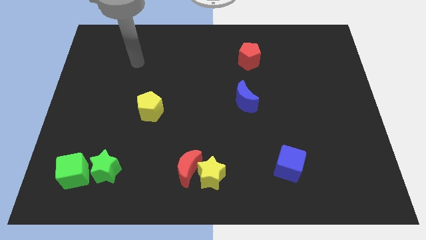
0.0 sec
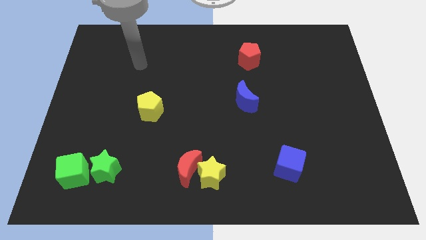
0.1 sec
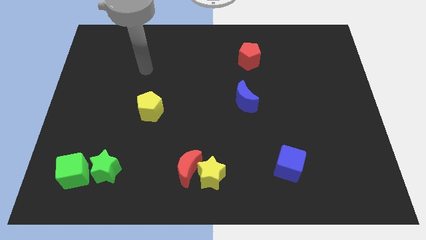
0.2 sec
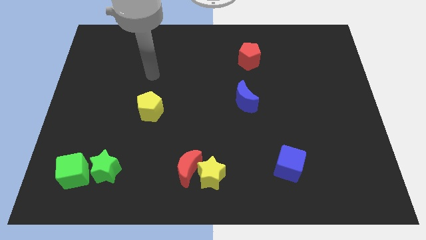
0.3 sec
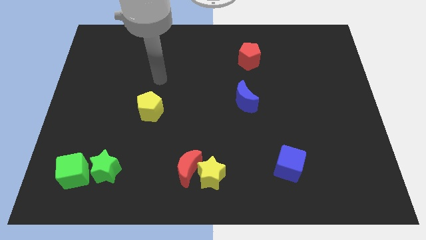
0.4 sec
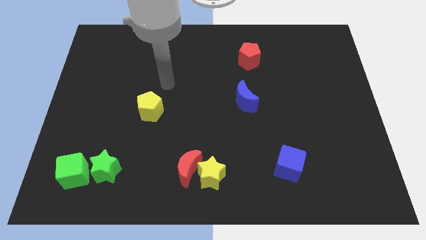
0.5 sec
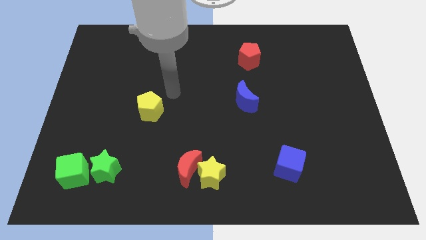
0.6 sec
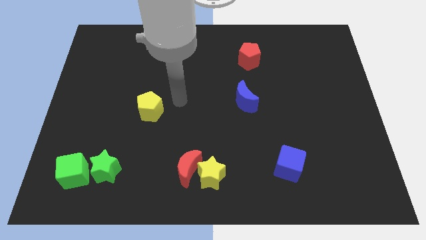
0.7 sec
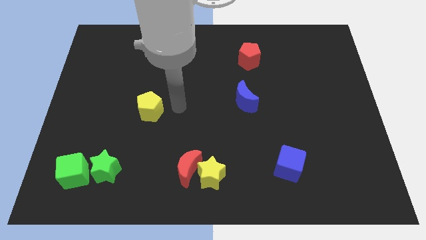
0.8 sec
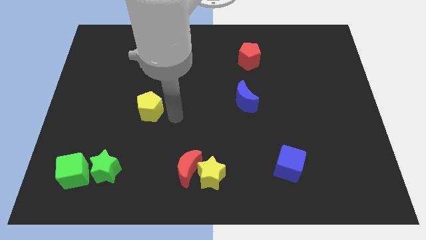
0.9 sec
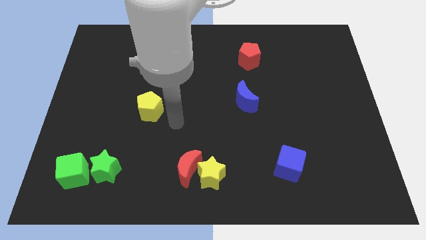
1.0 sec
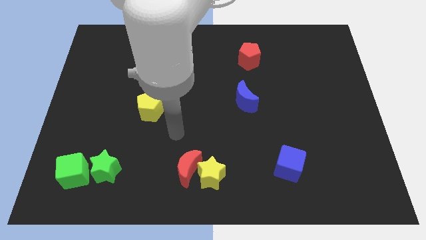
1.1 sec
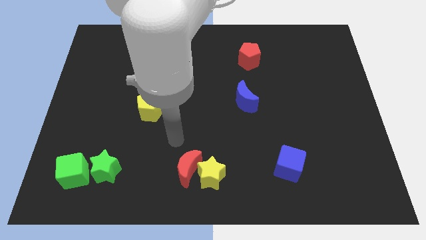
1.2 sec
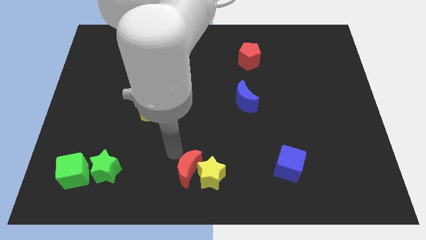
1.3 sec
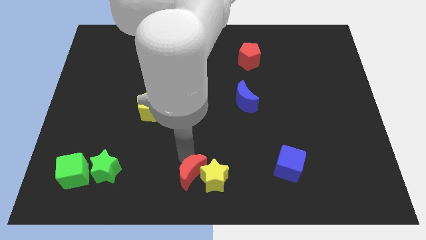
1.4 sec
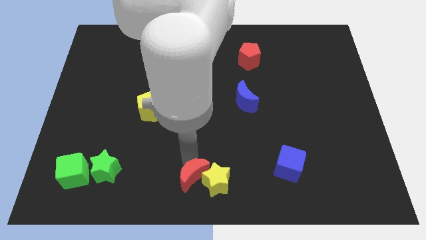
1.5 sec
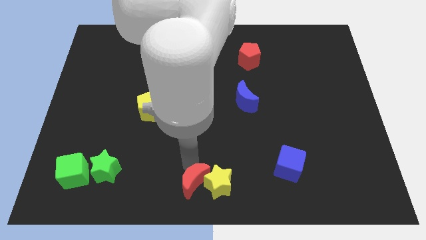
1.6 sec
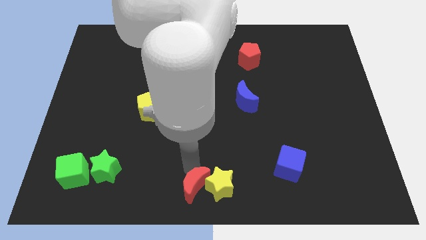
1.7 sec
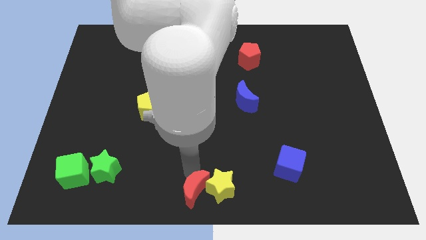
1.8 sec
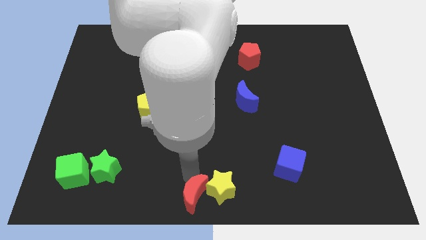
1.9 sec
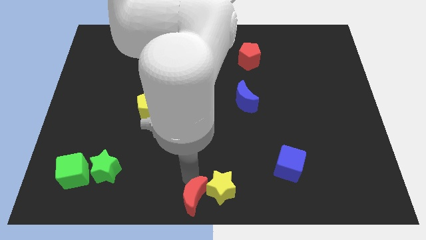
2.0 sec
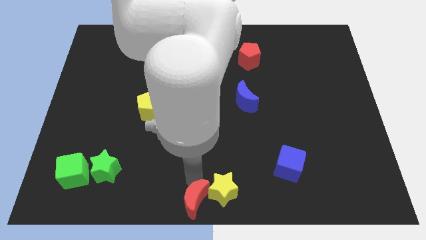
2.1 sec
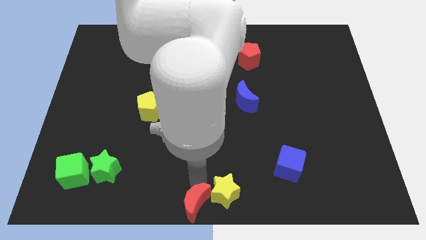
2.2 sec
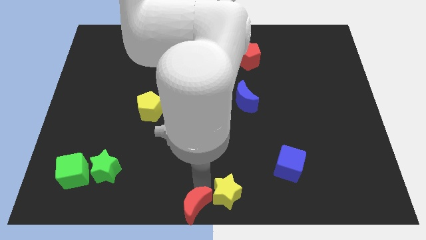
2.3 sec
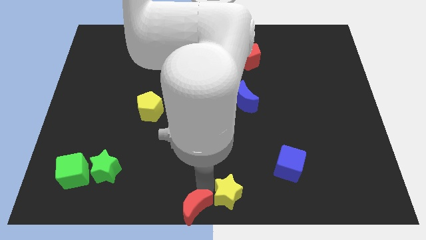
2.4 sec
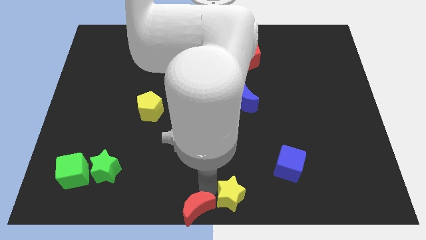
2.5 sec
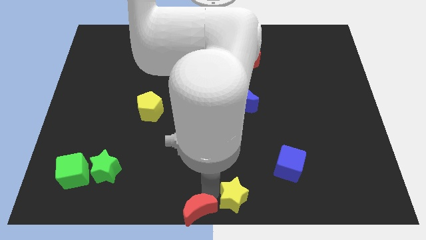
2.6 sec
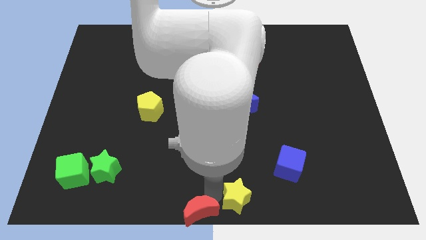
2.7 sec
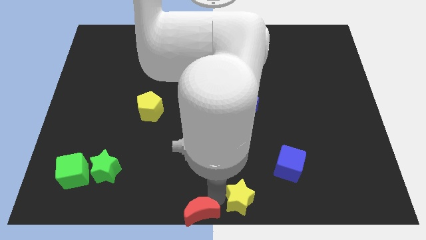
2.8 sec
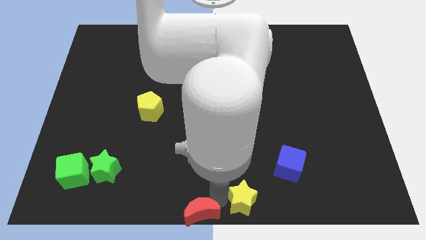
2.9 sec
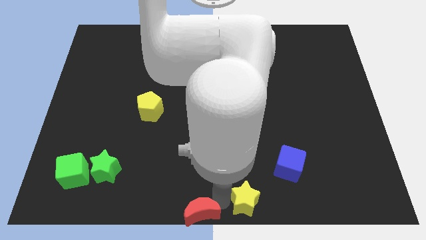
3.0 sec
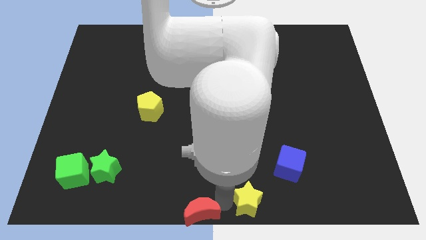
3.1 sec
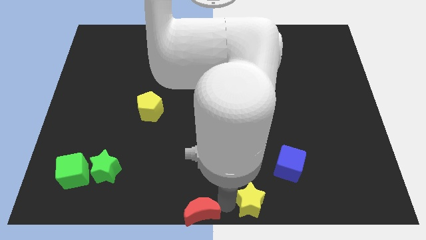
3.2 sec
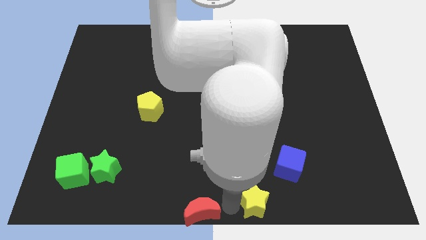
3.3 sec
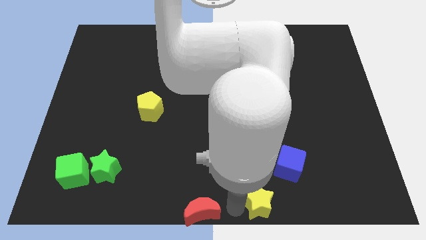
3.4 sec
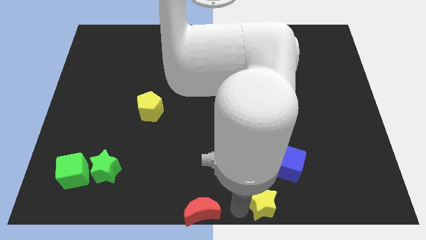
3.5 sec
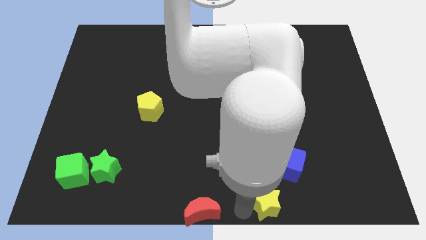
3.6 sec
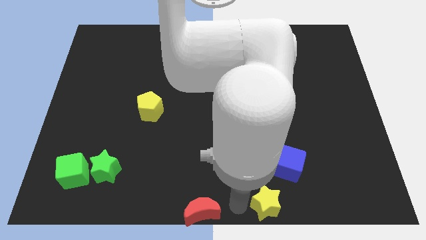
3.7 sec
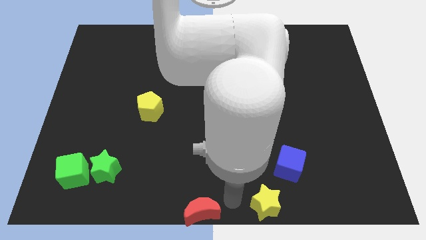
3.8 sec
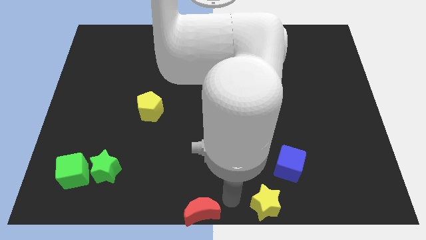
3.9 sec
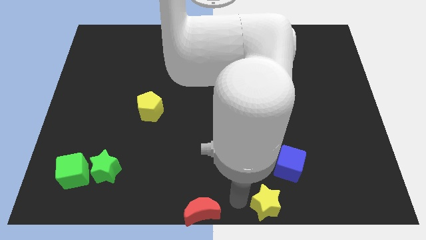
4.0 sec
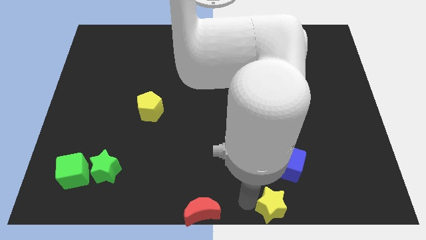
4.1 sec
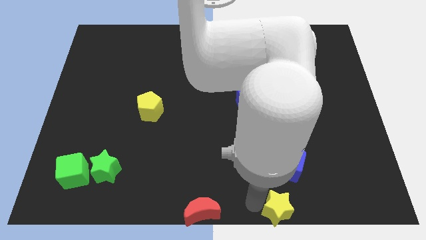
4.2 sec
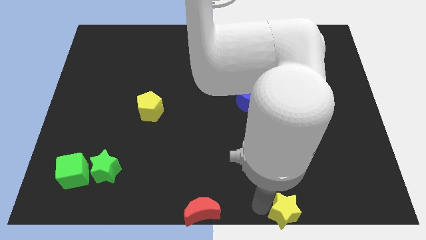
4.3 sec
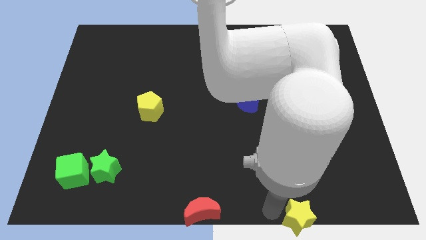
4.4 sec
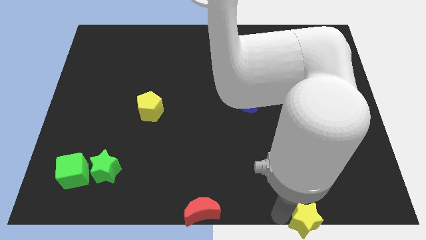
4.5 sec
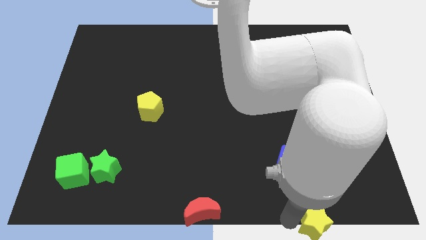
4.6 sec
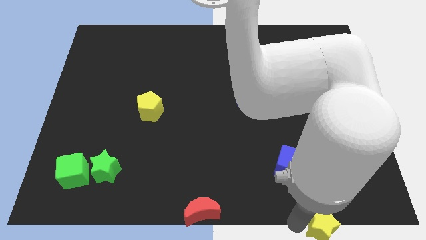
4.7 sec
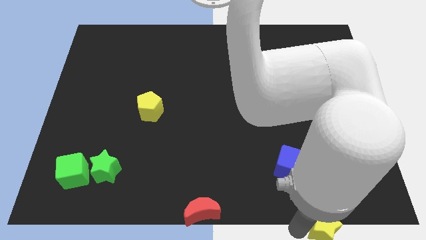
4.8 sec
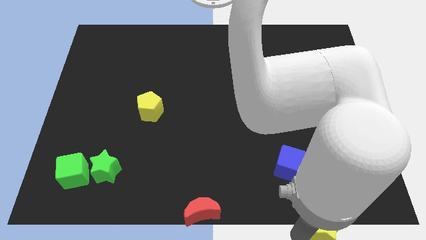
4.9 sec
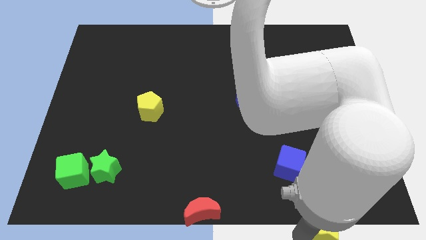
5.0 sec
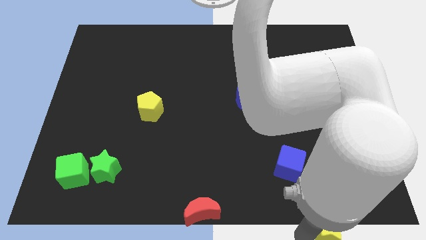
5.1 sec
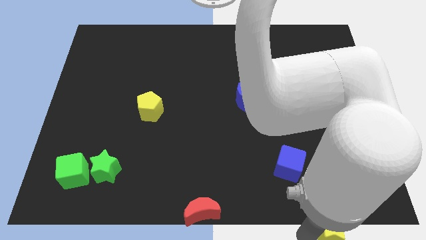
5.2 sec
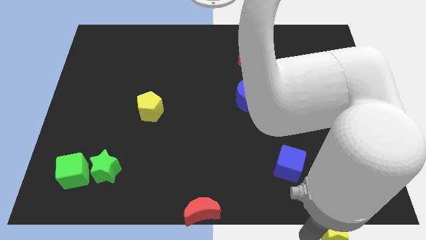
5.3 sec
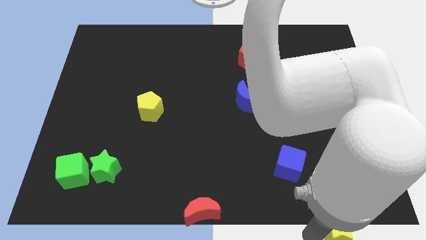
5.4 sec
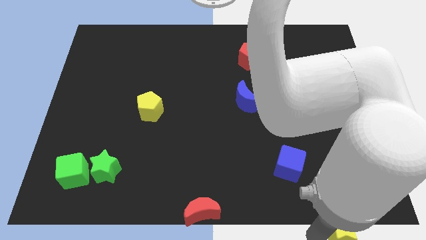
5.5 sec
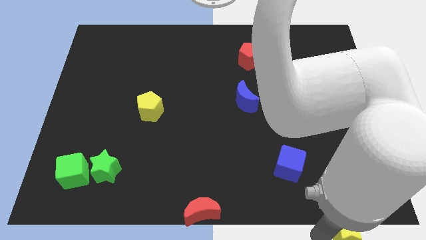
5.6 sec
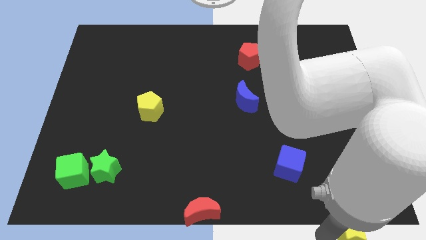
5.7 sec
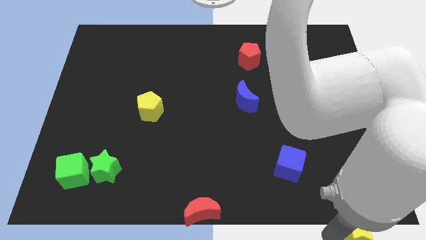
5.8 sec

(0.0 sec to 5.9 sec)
slide the yellow star to the bottom right
